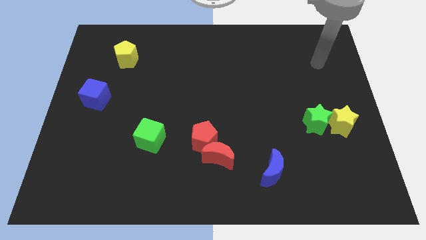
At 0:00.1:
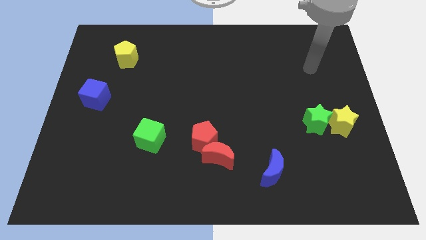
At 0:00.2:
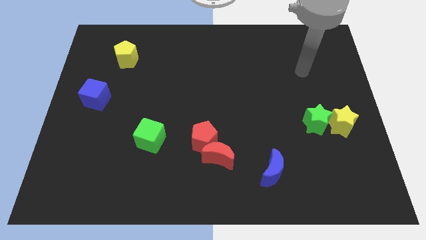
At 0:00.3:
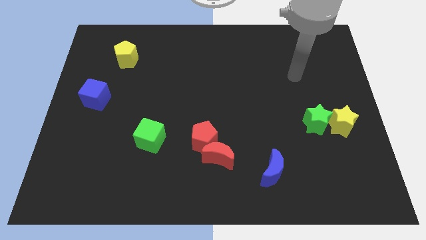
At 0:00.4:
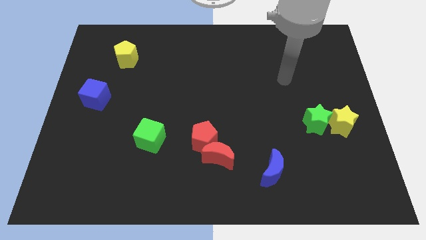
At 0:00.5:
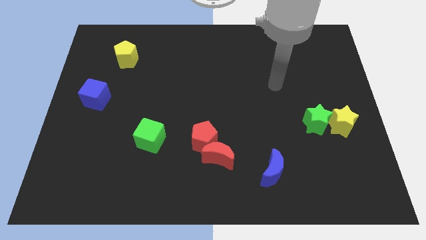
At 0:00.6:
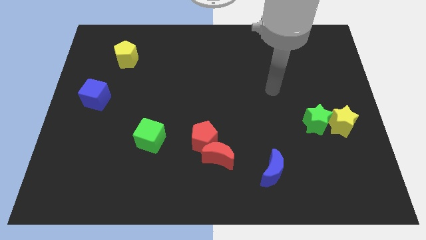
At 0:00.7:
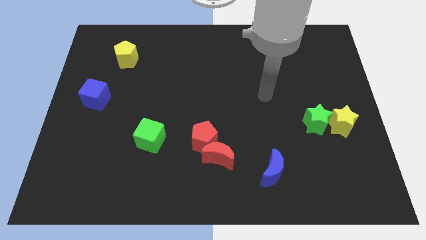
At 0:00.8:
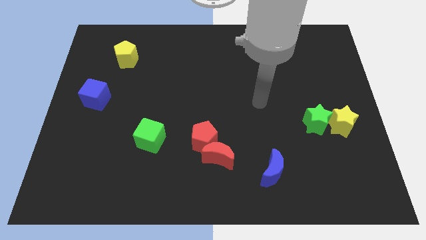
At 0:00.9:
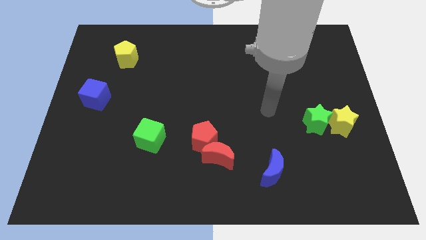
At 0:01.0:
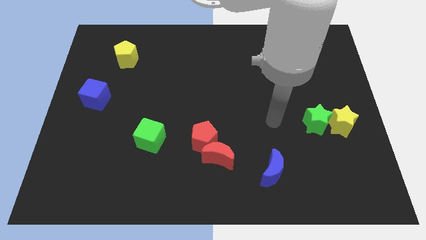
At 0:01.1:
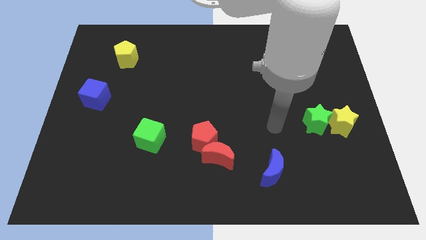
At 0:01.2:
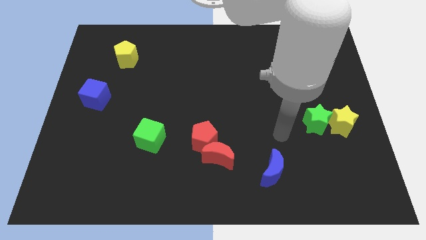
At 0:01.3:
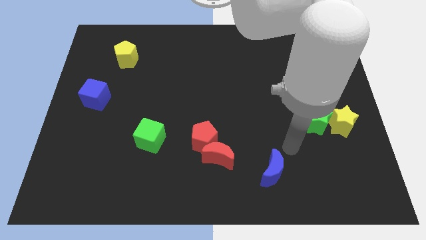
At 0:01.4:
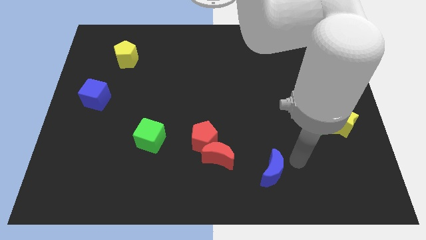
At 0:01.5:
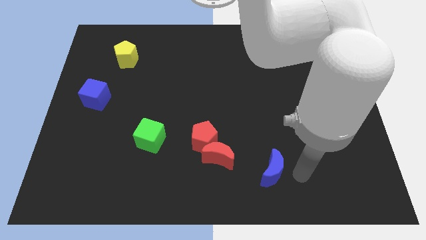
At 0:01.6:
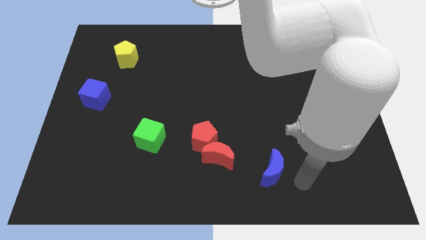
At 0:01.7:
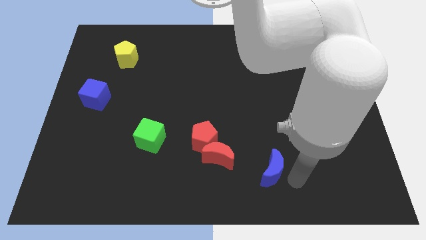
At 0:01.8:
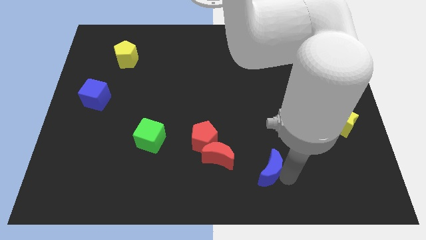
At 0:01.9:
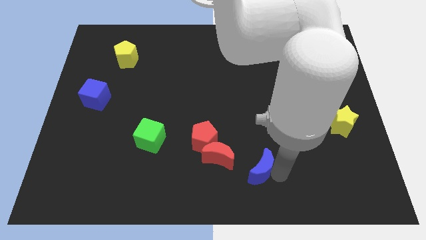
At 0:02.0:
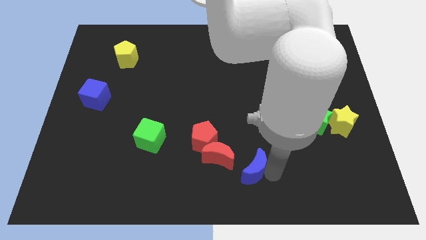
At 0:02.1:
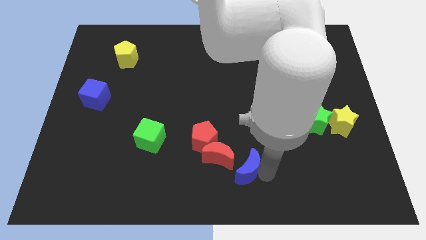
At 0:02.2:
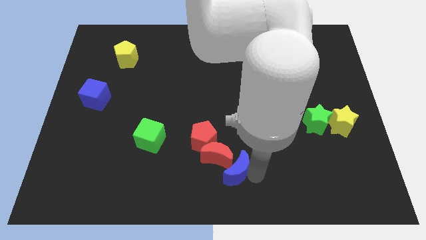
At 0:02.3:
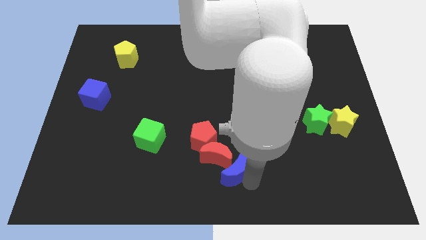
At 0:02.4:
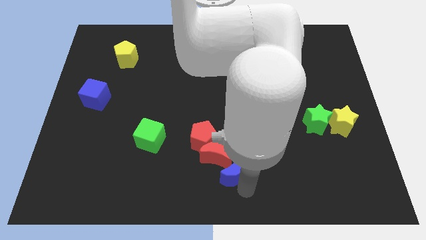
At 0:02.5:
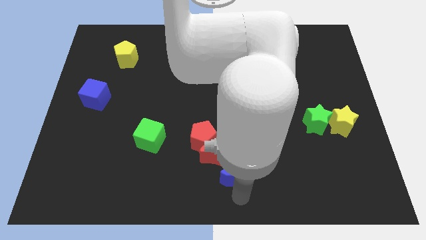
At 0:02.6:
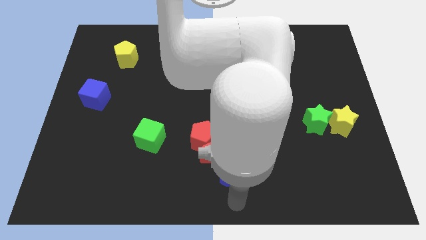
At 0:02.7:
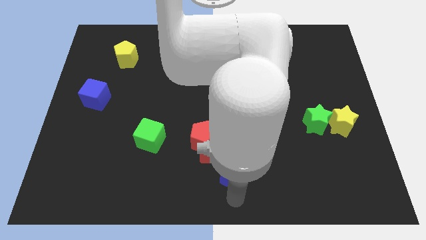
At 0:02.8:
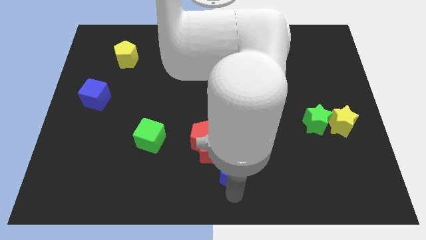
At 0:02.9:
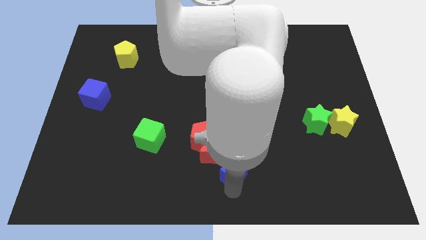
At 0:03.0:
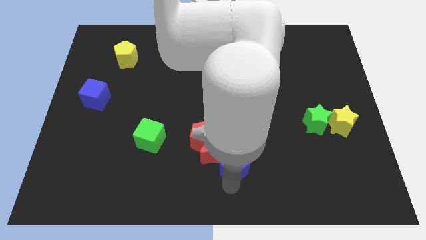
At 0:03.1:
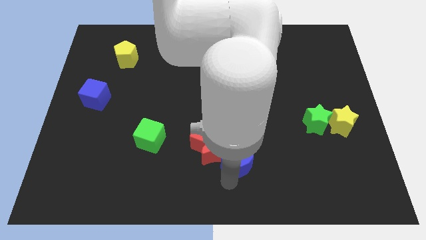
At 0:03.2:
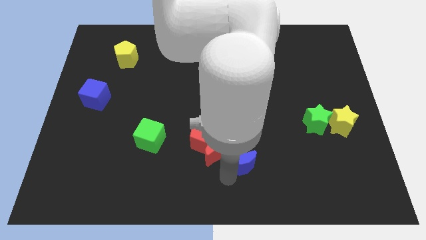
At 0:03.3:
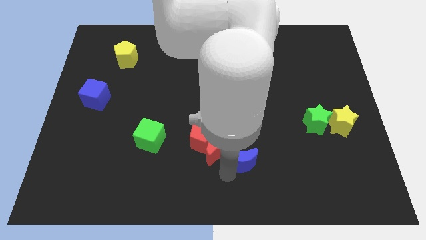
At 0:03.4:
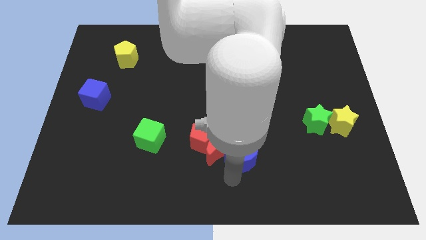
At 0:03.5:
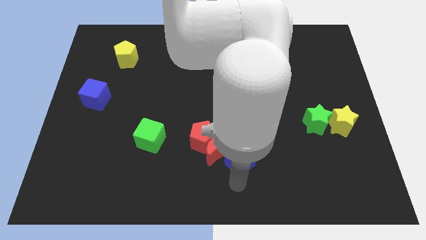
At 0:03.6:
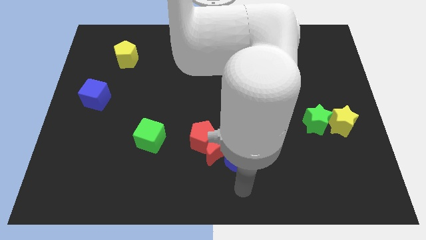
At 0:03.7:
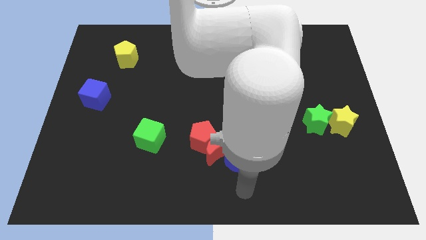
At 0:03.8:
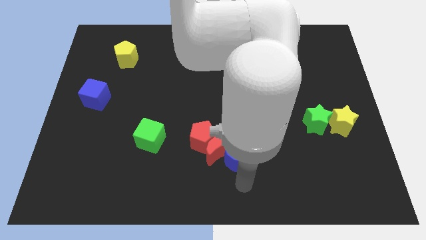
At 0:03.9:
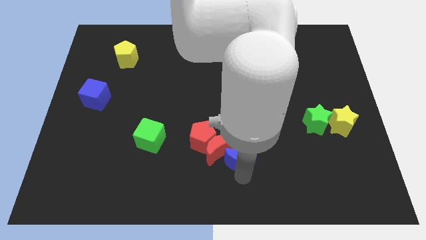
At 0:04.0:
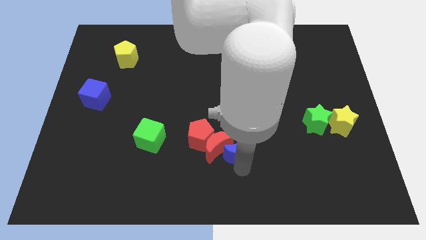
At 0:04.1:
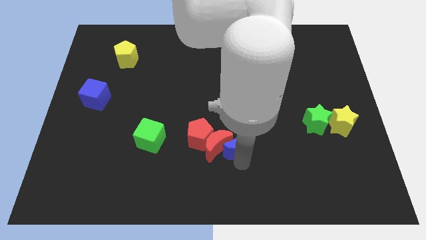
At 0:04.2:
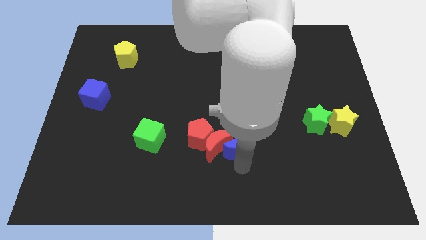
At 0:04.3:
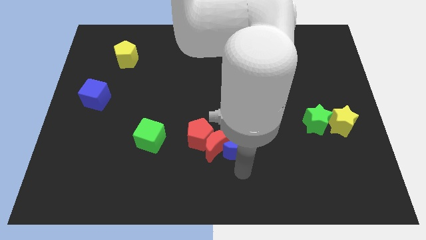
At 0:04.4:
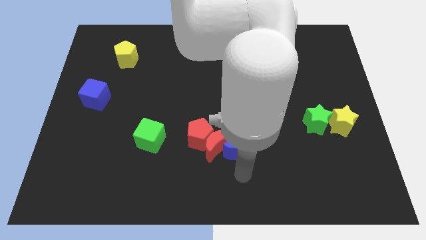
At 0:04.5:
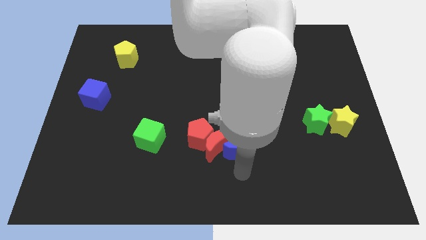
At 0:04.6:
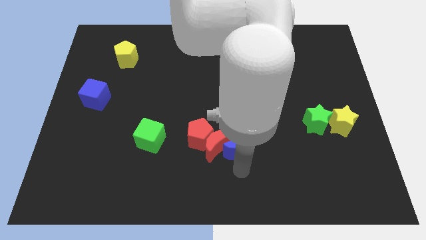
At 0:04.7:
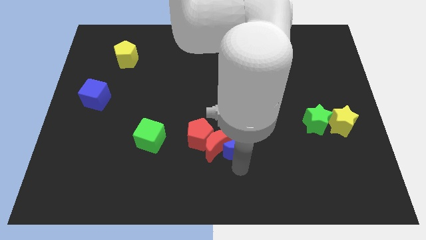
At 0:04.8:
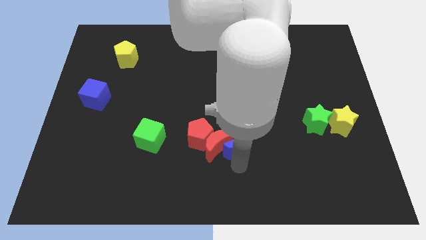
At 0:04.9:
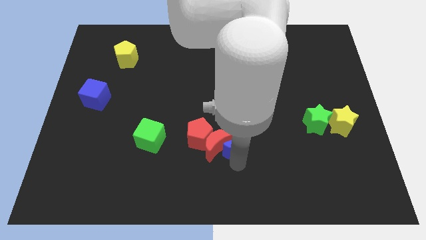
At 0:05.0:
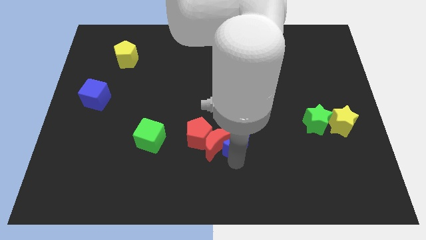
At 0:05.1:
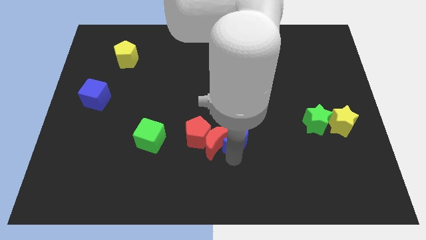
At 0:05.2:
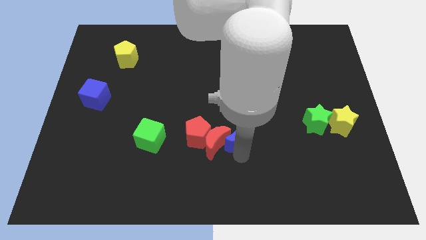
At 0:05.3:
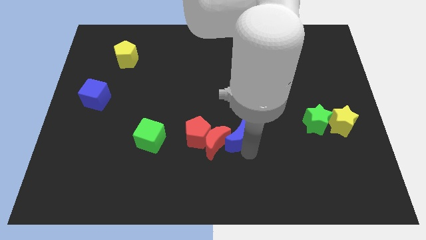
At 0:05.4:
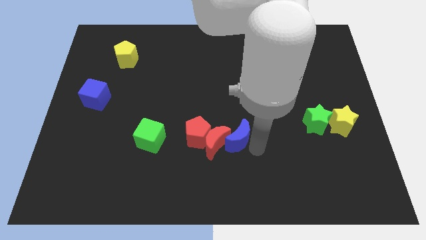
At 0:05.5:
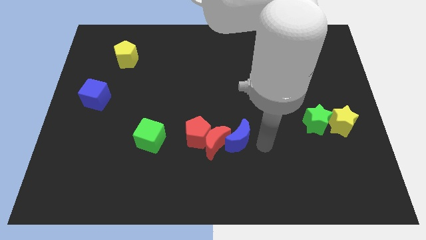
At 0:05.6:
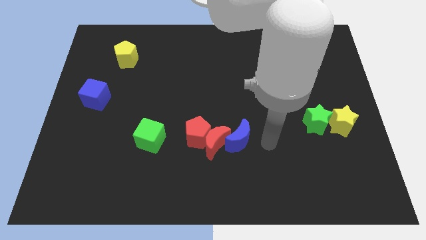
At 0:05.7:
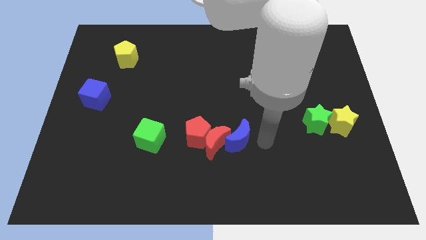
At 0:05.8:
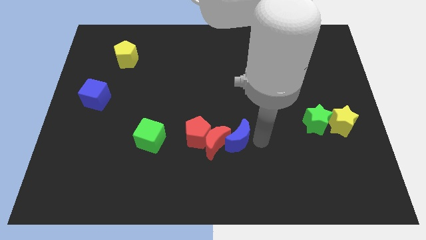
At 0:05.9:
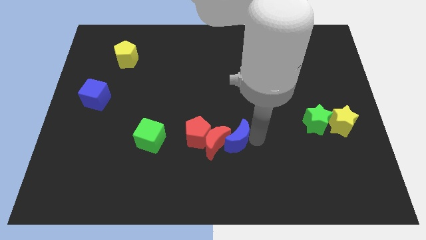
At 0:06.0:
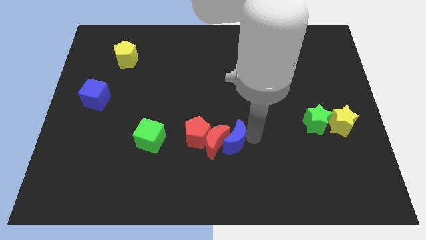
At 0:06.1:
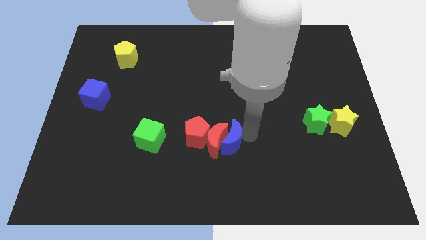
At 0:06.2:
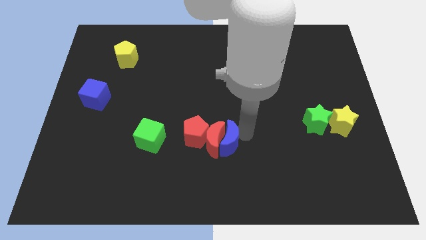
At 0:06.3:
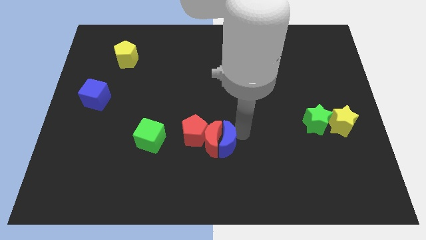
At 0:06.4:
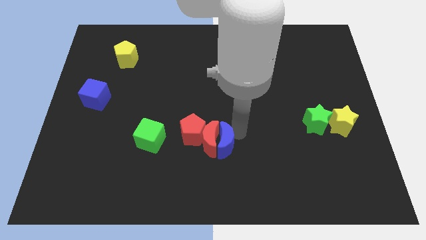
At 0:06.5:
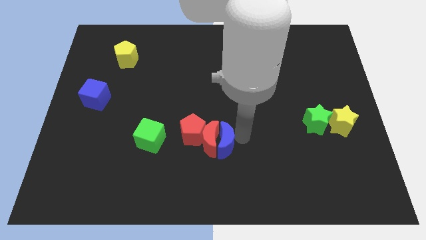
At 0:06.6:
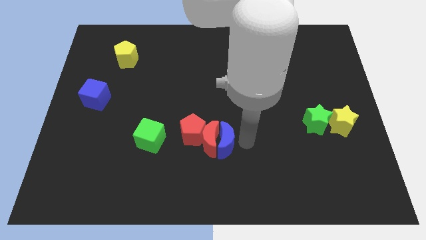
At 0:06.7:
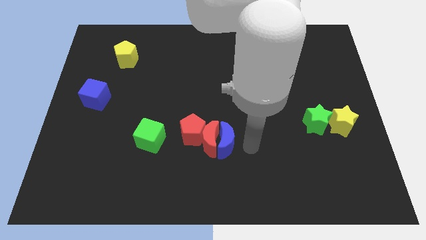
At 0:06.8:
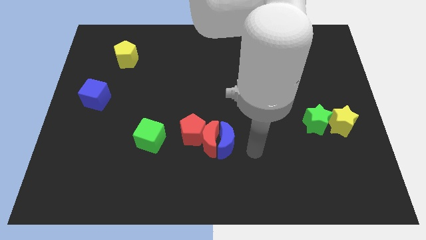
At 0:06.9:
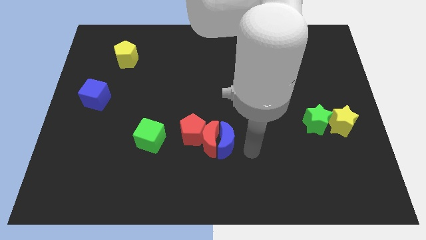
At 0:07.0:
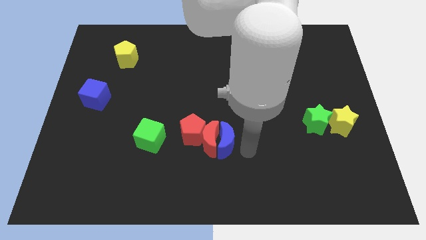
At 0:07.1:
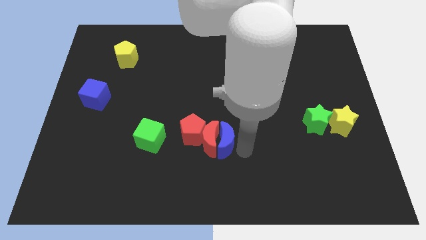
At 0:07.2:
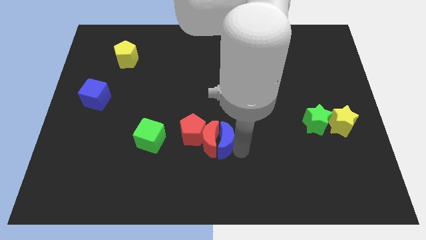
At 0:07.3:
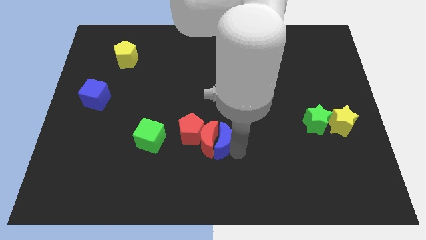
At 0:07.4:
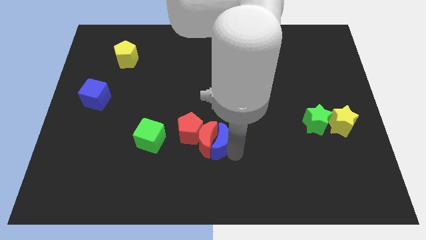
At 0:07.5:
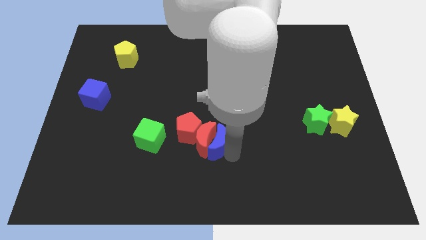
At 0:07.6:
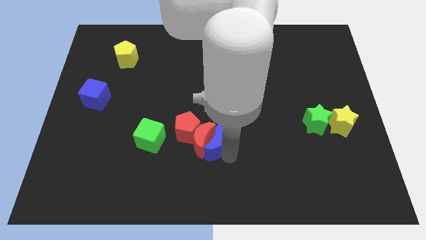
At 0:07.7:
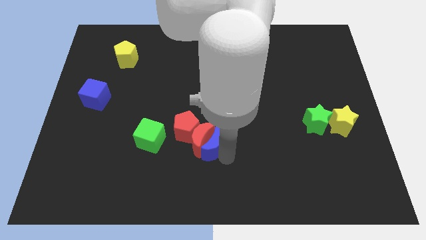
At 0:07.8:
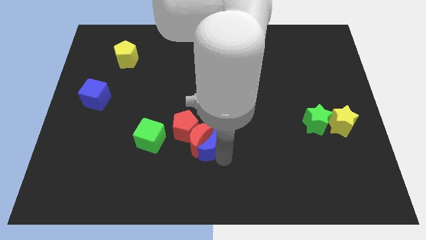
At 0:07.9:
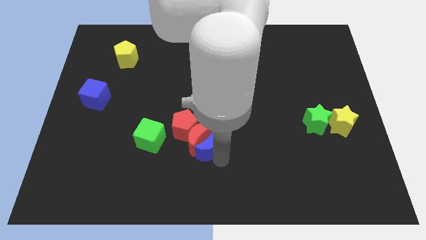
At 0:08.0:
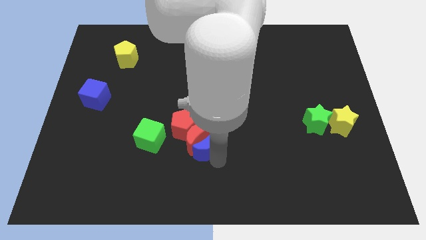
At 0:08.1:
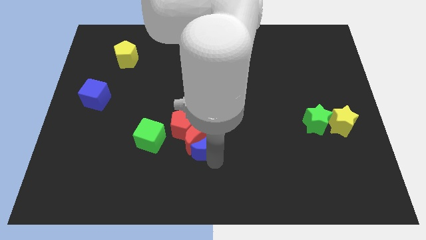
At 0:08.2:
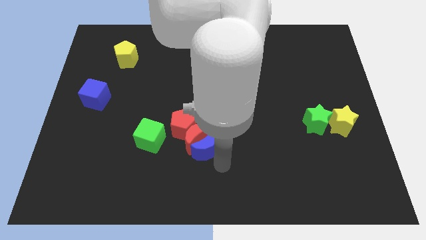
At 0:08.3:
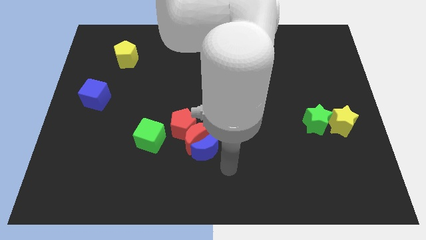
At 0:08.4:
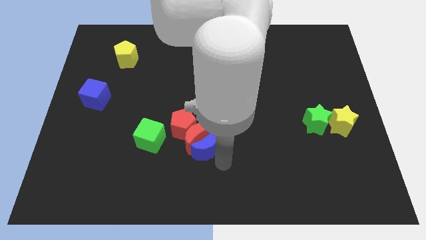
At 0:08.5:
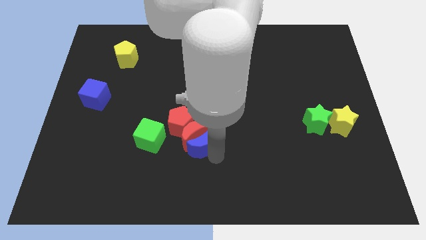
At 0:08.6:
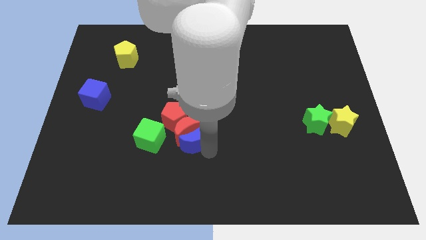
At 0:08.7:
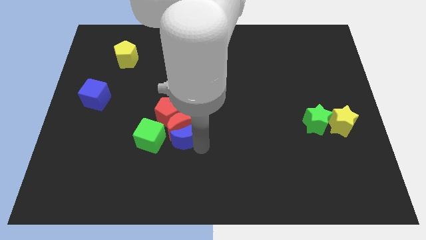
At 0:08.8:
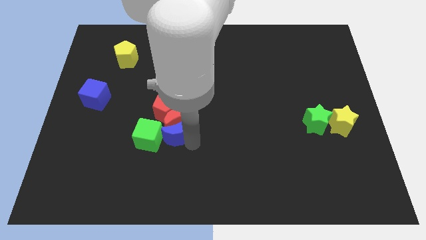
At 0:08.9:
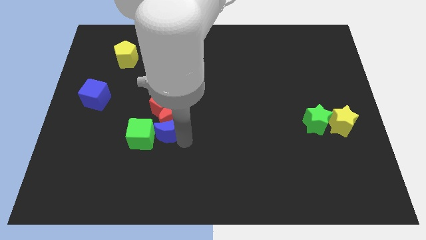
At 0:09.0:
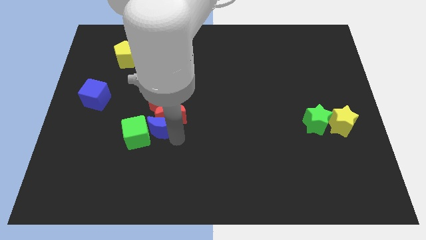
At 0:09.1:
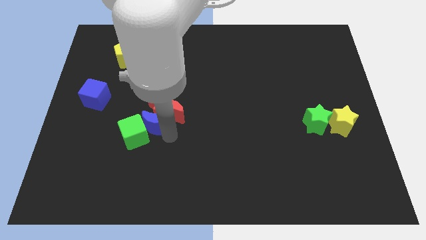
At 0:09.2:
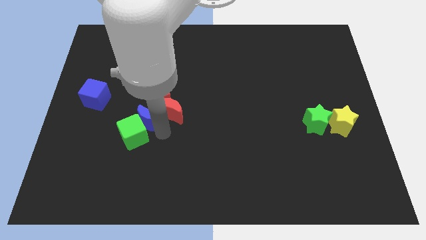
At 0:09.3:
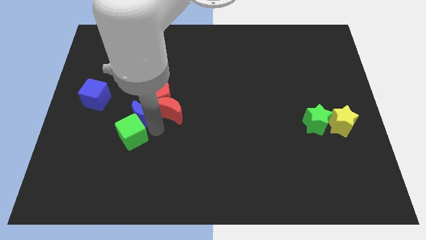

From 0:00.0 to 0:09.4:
slide the blue moon next to the red pentagon
